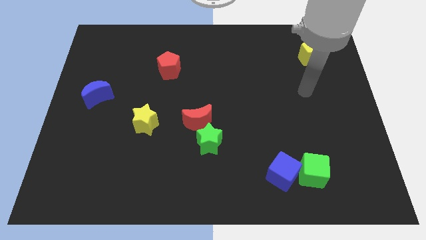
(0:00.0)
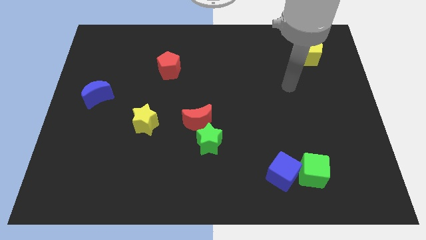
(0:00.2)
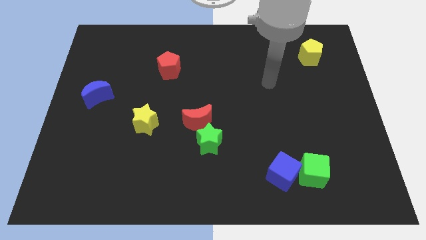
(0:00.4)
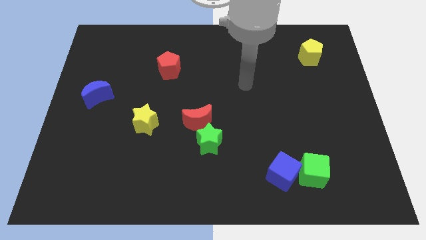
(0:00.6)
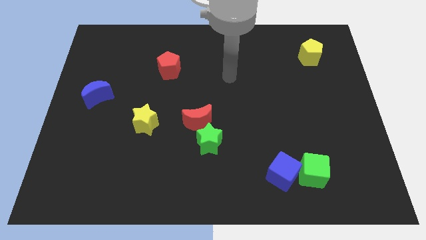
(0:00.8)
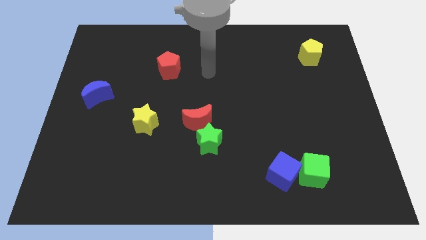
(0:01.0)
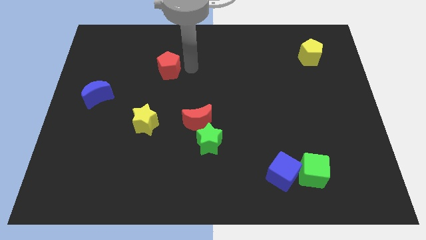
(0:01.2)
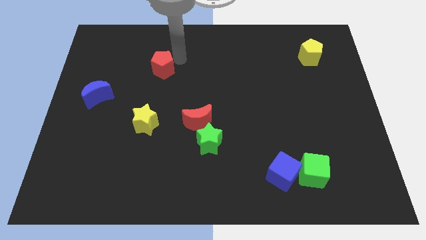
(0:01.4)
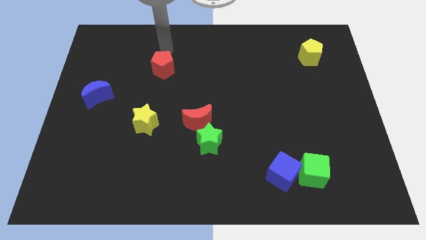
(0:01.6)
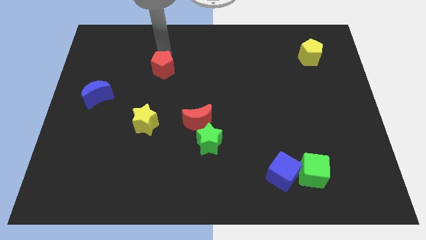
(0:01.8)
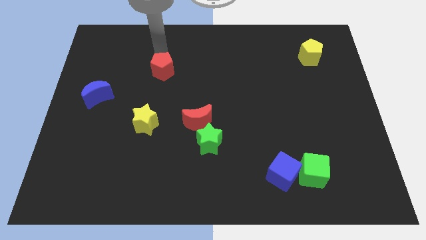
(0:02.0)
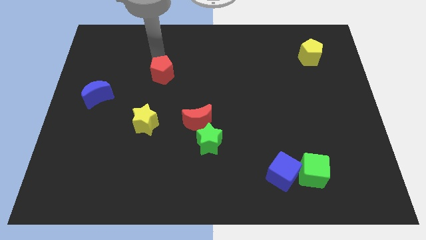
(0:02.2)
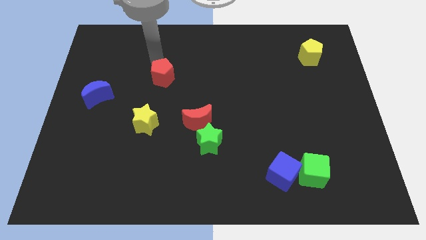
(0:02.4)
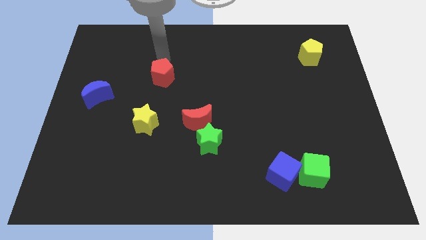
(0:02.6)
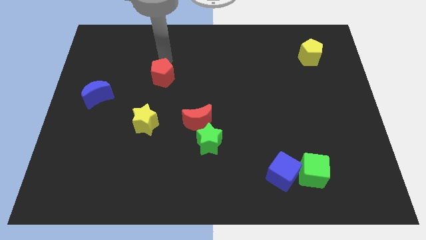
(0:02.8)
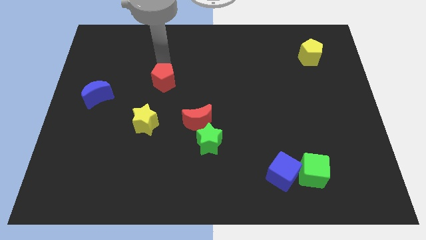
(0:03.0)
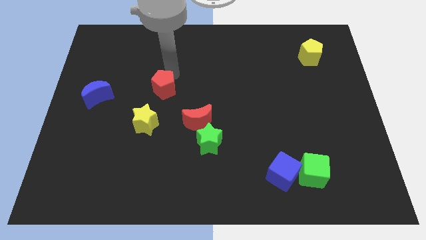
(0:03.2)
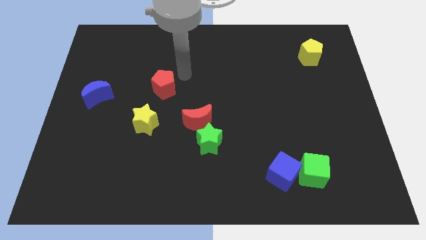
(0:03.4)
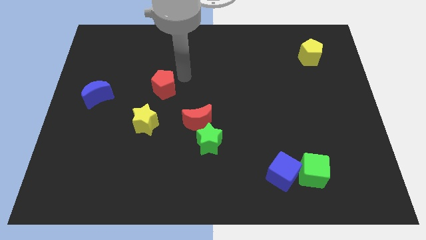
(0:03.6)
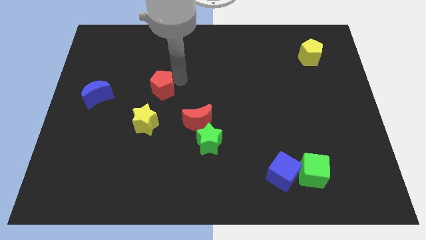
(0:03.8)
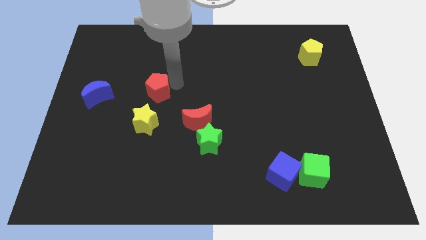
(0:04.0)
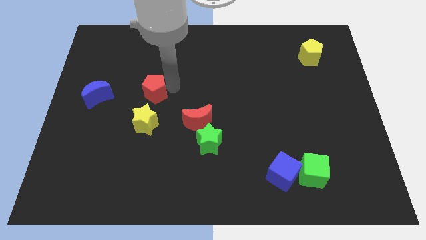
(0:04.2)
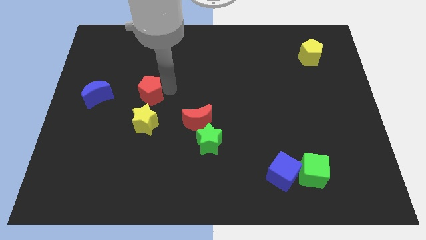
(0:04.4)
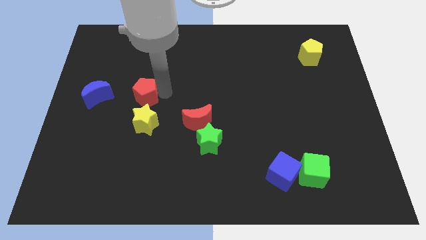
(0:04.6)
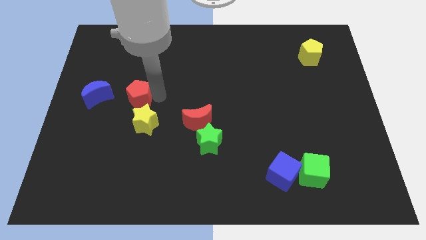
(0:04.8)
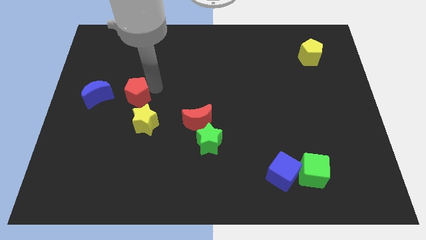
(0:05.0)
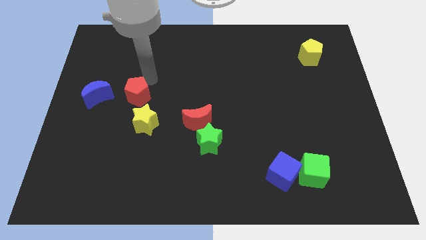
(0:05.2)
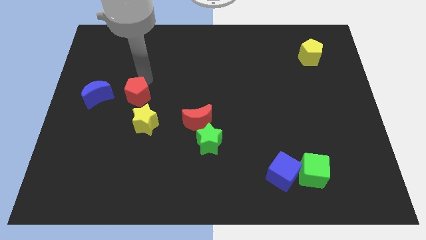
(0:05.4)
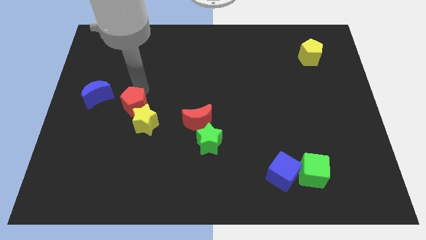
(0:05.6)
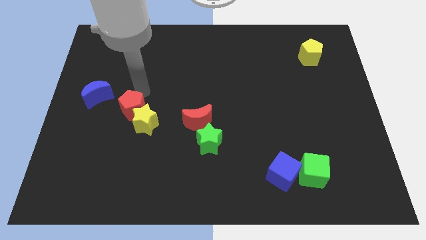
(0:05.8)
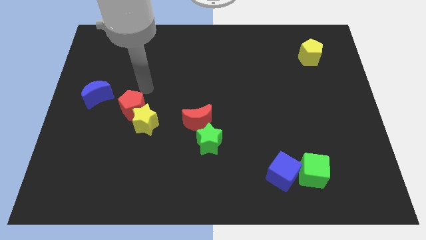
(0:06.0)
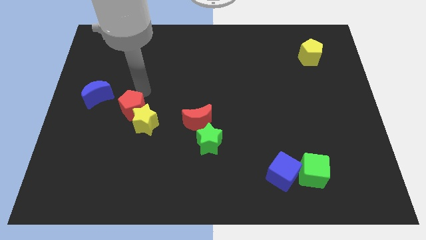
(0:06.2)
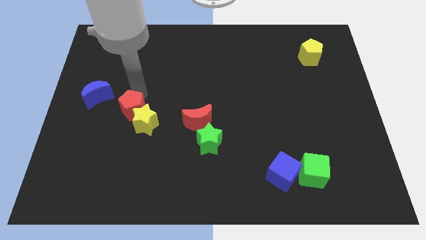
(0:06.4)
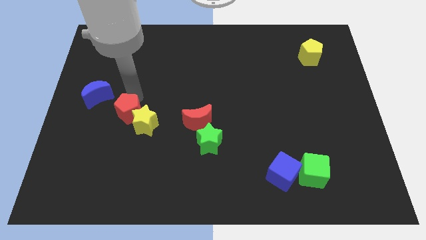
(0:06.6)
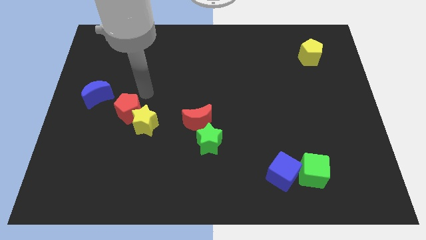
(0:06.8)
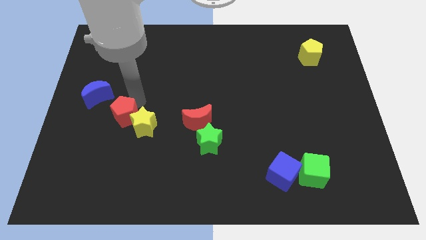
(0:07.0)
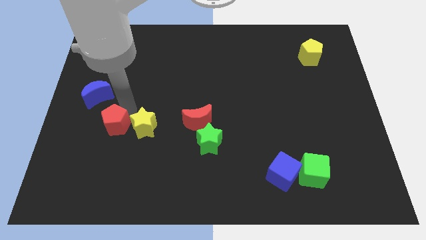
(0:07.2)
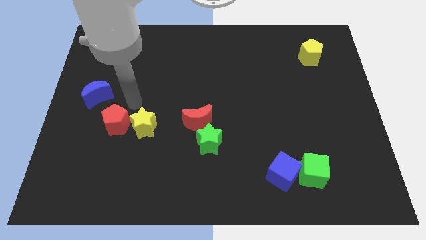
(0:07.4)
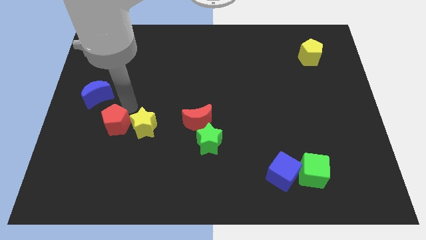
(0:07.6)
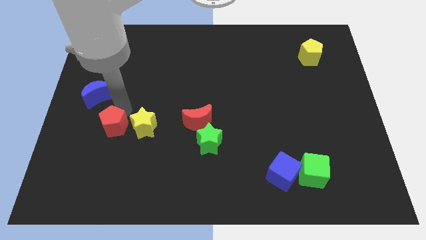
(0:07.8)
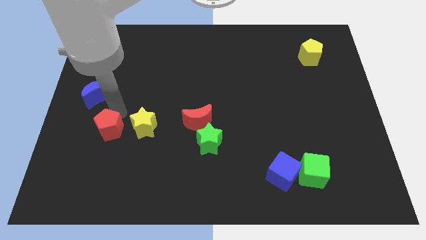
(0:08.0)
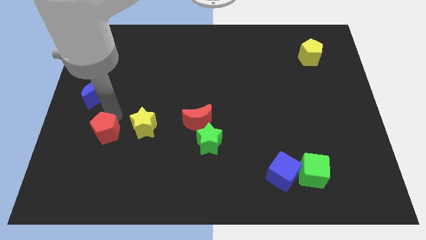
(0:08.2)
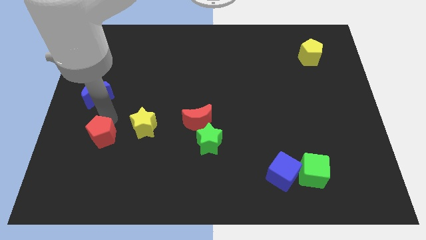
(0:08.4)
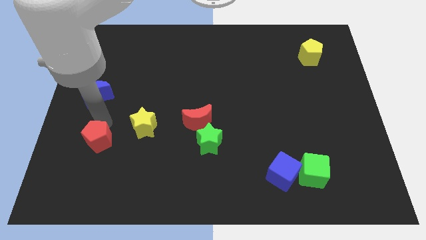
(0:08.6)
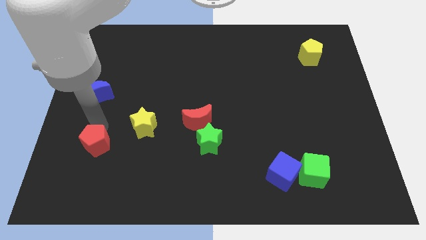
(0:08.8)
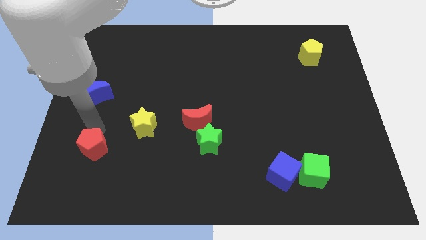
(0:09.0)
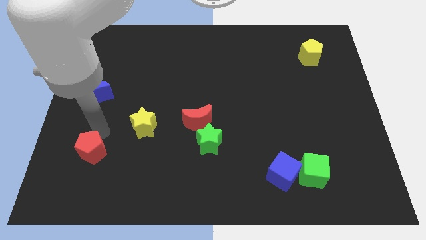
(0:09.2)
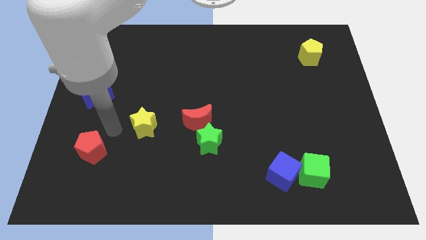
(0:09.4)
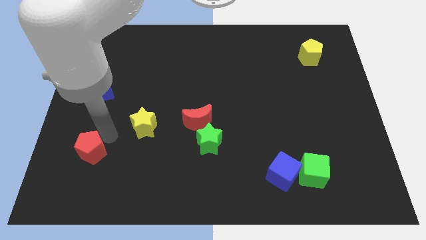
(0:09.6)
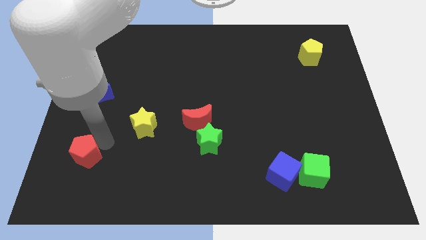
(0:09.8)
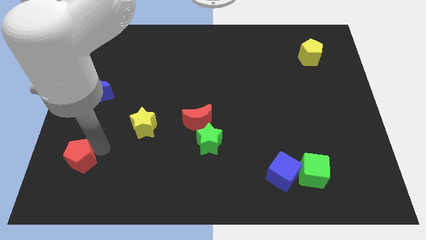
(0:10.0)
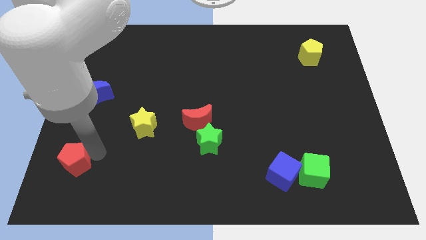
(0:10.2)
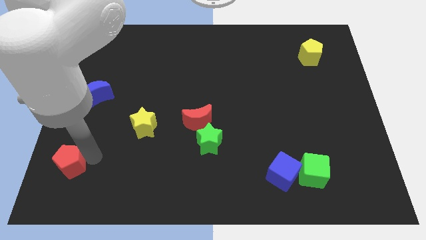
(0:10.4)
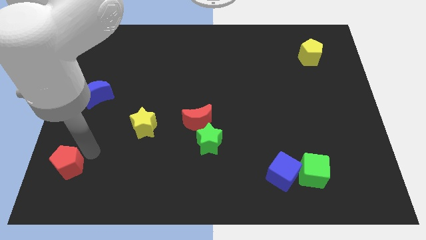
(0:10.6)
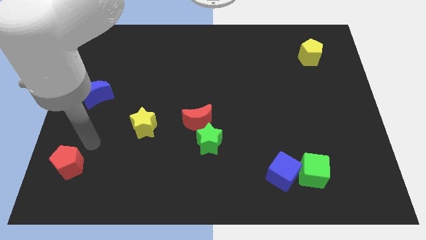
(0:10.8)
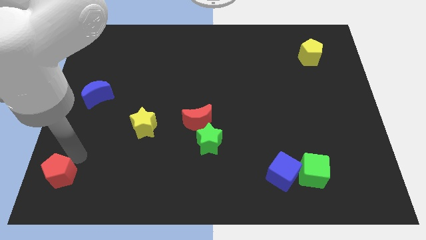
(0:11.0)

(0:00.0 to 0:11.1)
put the red pentagon to the lower left corner

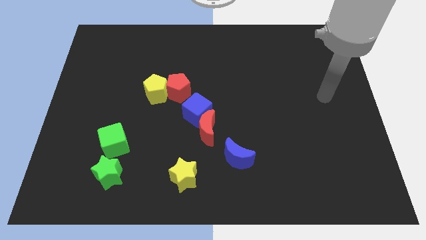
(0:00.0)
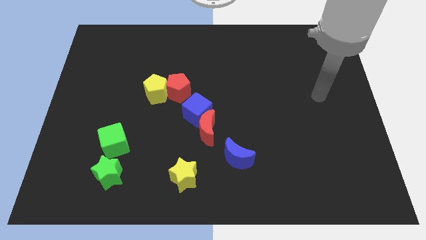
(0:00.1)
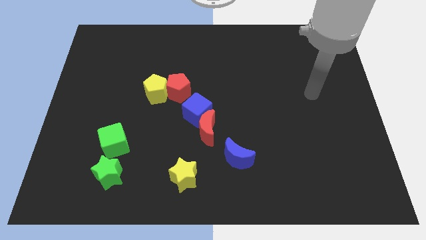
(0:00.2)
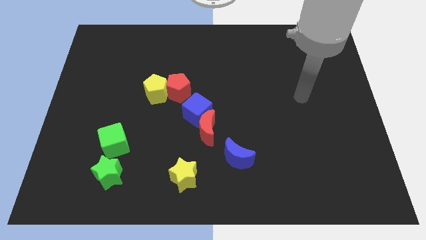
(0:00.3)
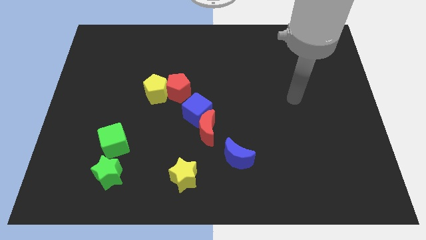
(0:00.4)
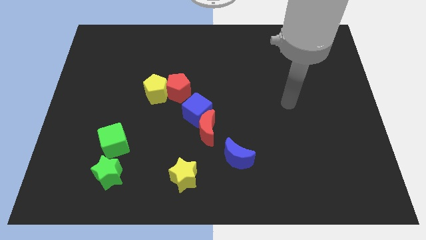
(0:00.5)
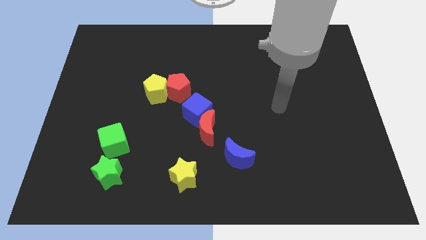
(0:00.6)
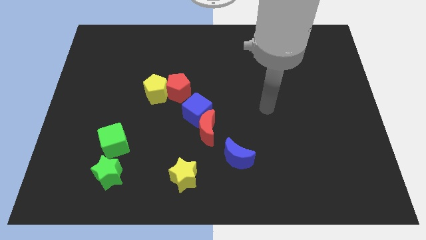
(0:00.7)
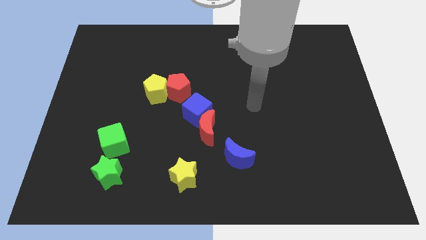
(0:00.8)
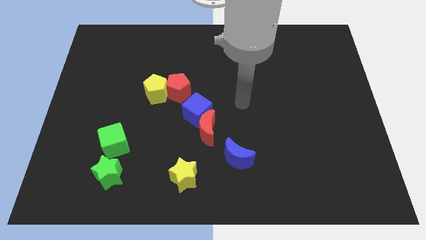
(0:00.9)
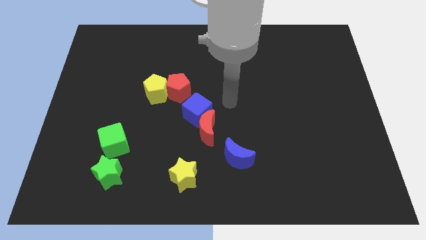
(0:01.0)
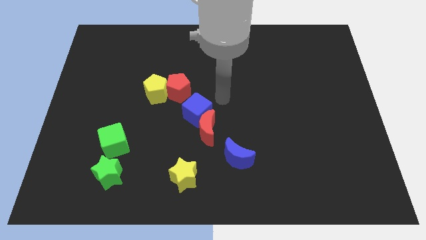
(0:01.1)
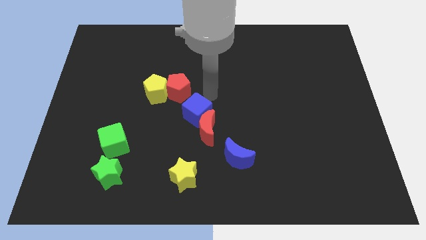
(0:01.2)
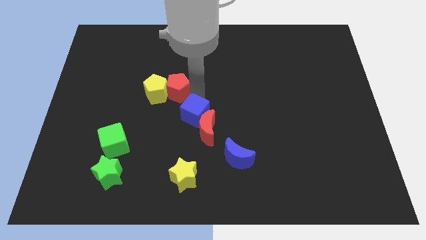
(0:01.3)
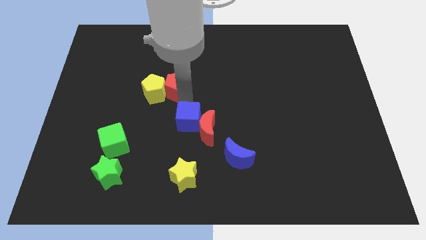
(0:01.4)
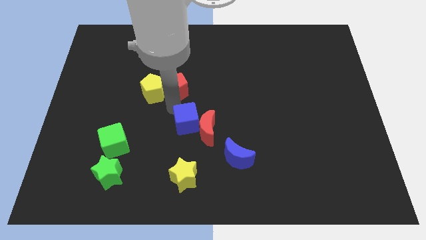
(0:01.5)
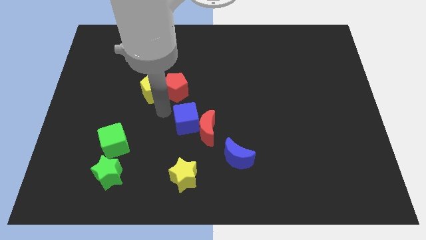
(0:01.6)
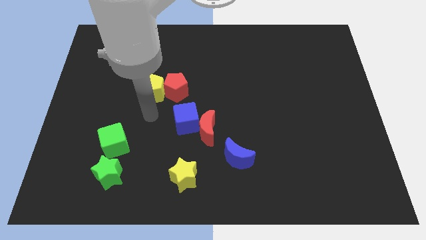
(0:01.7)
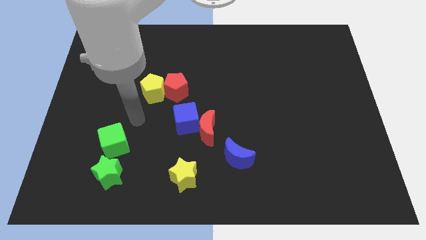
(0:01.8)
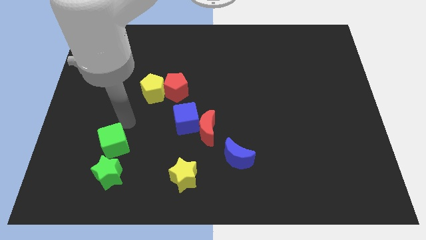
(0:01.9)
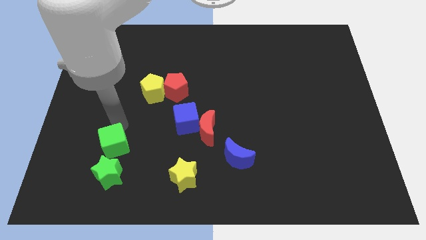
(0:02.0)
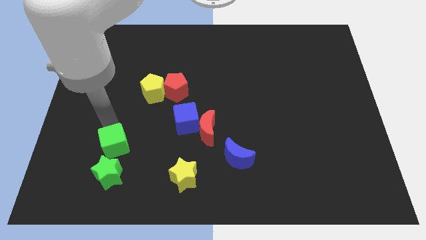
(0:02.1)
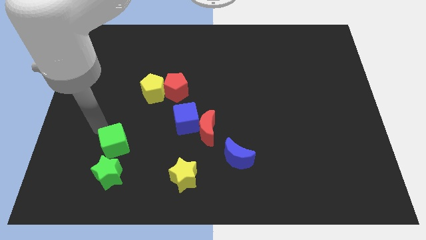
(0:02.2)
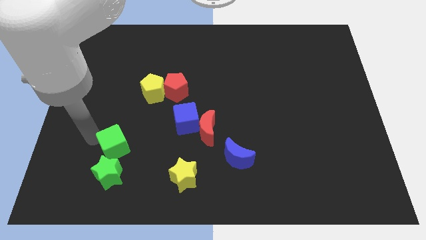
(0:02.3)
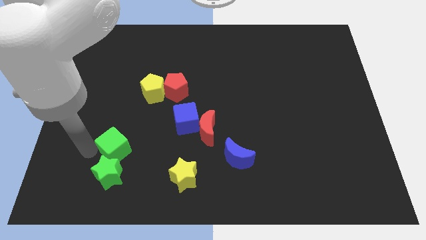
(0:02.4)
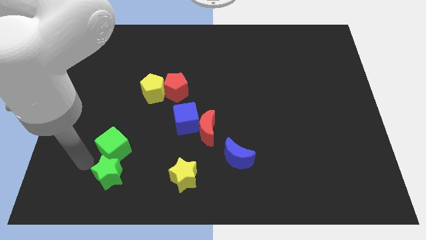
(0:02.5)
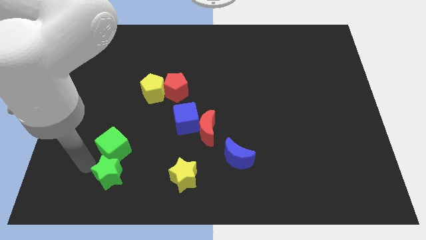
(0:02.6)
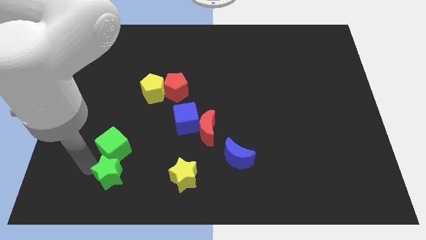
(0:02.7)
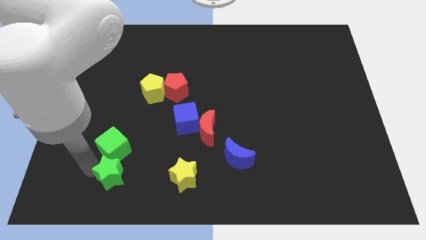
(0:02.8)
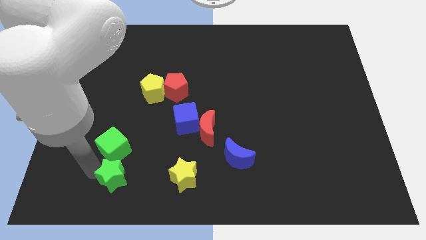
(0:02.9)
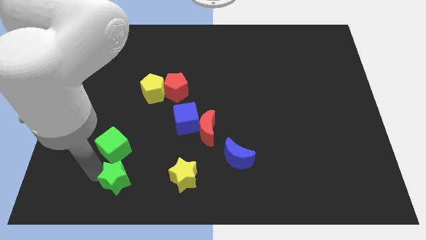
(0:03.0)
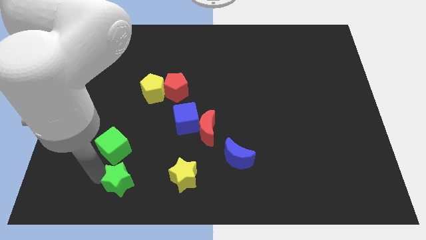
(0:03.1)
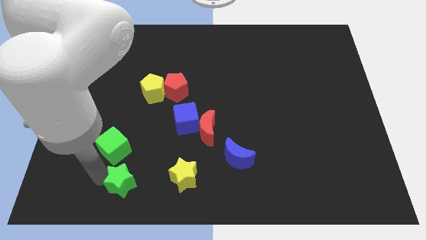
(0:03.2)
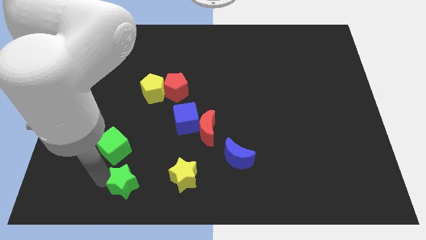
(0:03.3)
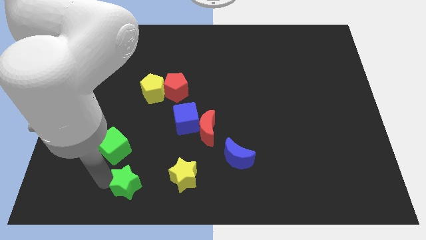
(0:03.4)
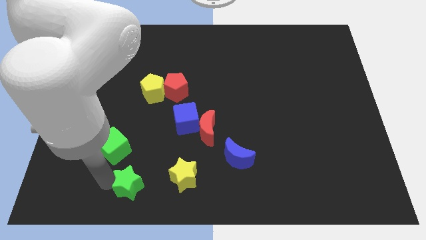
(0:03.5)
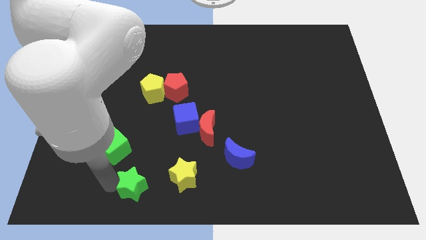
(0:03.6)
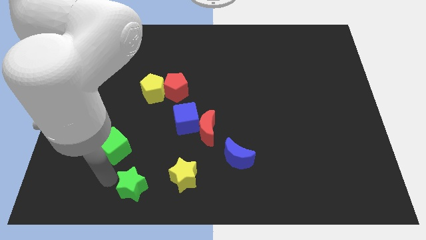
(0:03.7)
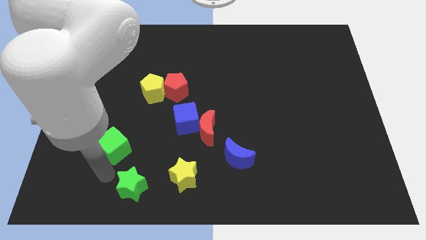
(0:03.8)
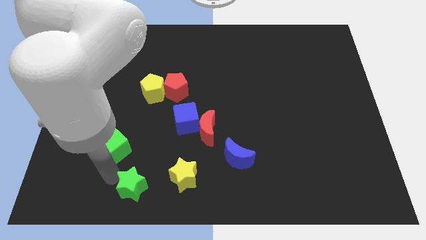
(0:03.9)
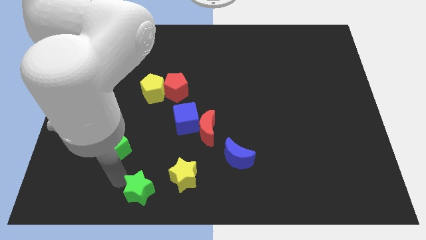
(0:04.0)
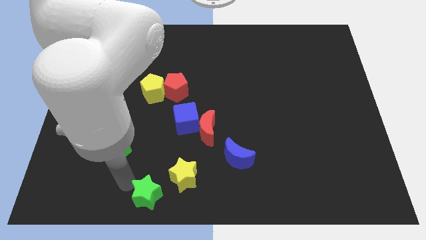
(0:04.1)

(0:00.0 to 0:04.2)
move the green star to the bottom
